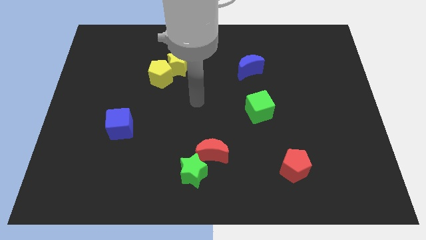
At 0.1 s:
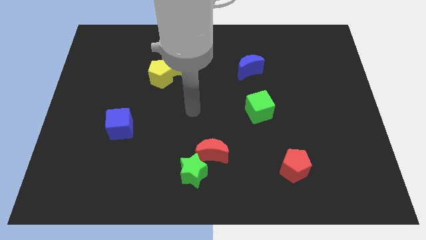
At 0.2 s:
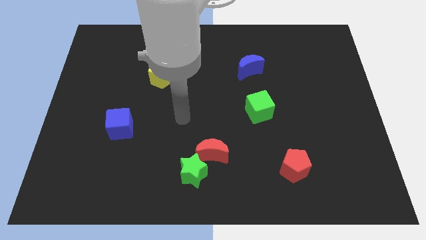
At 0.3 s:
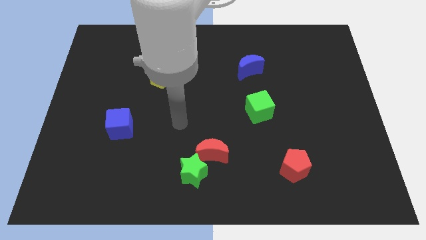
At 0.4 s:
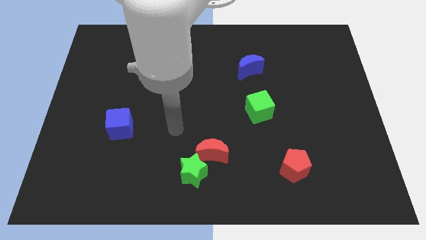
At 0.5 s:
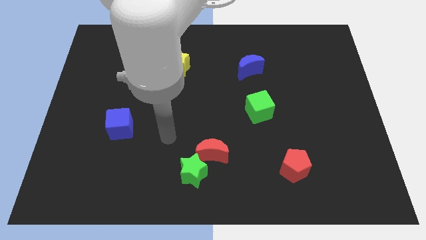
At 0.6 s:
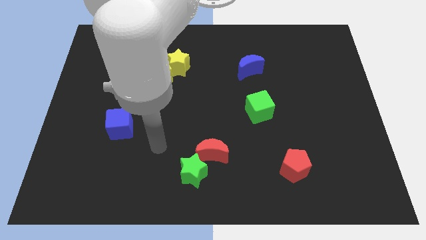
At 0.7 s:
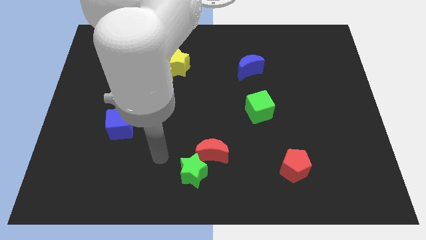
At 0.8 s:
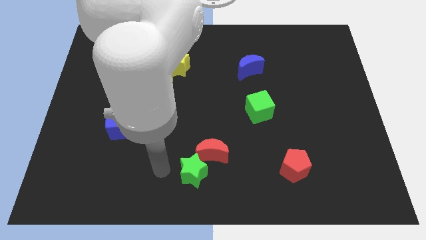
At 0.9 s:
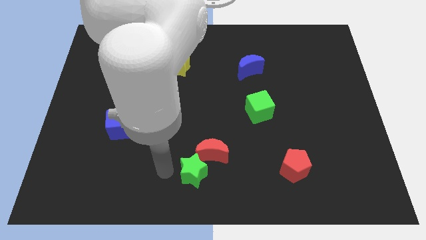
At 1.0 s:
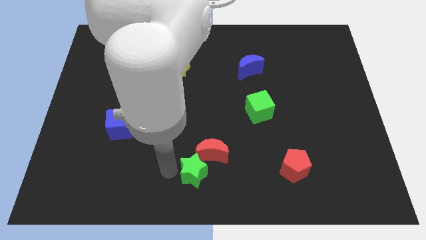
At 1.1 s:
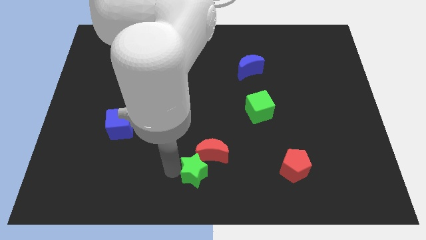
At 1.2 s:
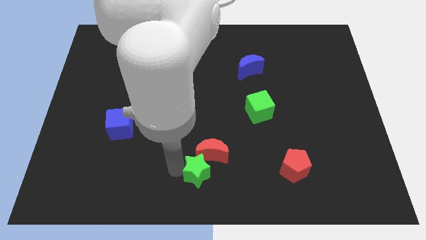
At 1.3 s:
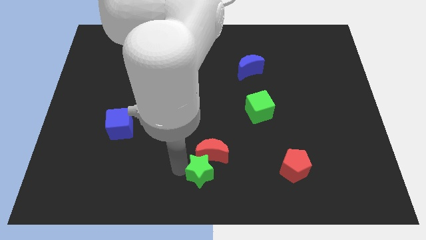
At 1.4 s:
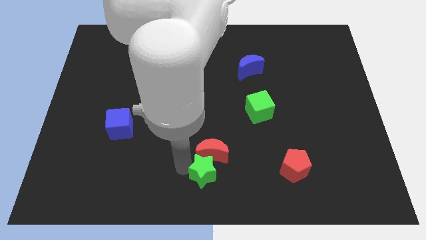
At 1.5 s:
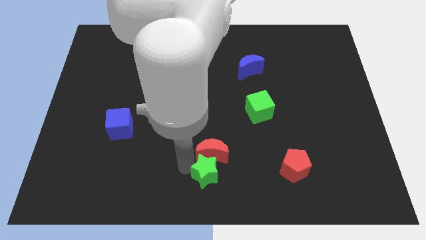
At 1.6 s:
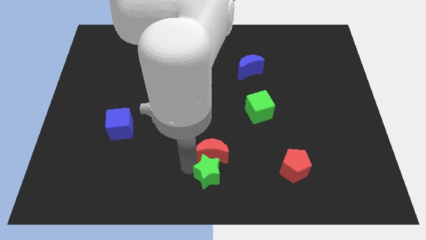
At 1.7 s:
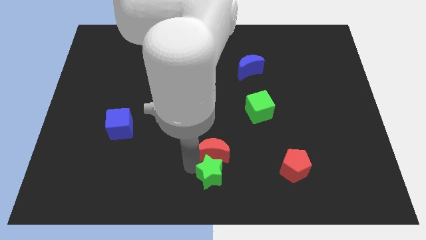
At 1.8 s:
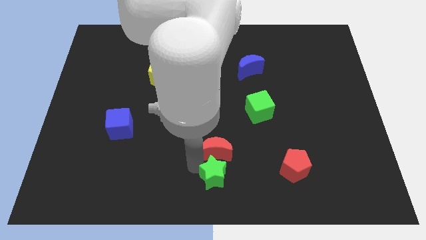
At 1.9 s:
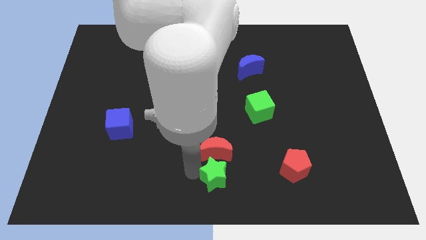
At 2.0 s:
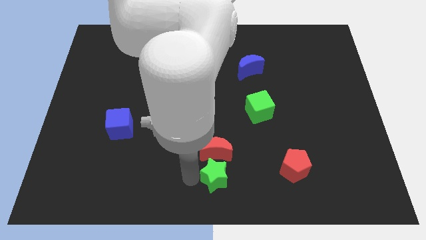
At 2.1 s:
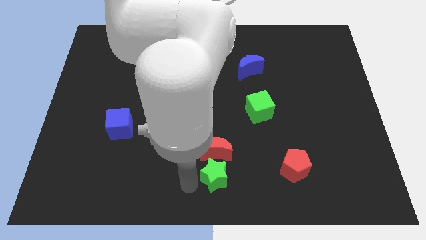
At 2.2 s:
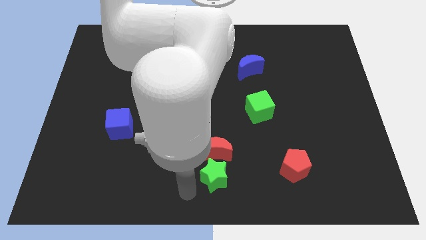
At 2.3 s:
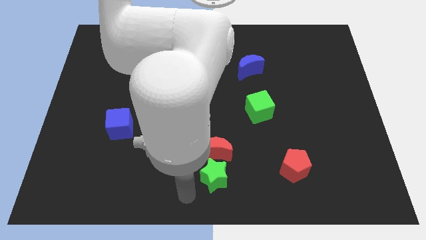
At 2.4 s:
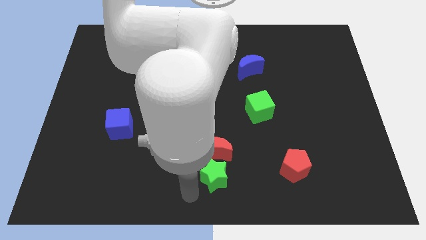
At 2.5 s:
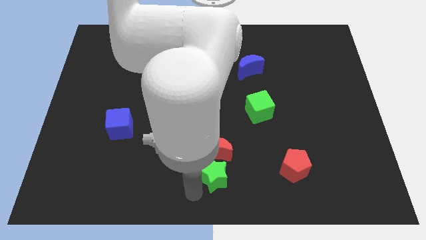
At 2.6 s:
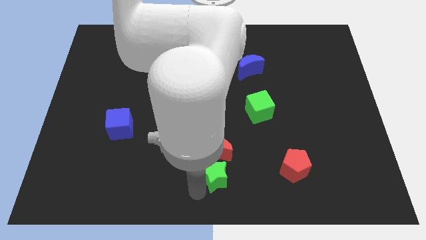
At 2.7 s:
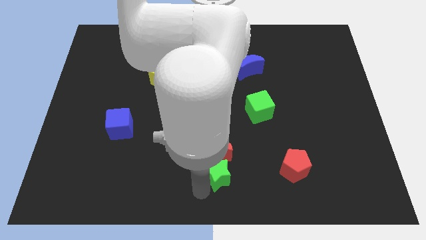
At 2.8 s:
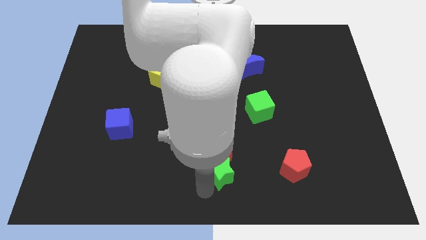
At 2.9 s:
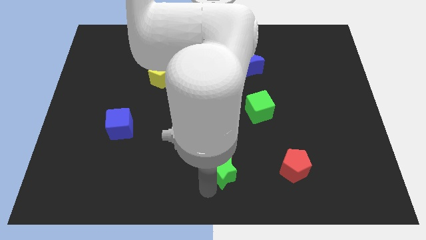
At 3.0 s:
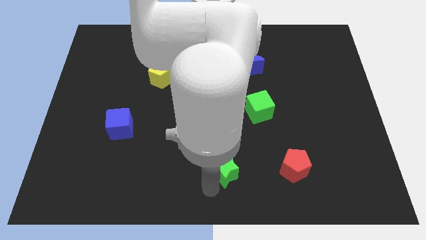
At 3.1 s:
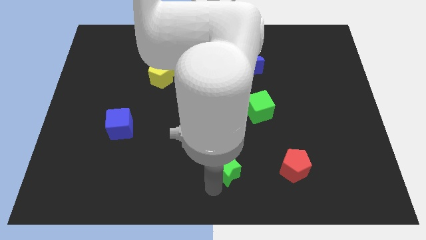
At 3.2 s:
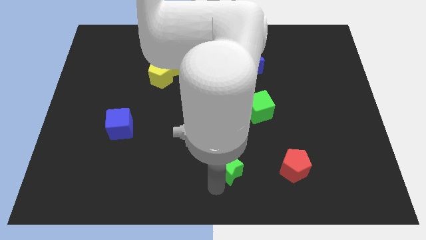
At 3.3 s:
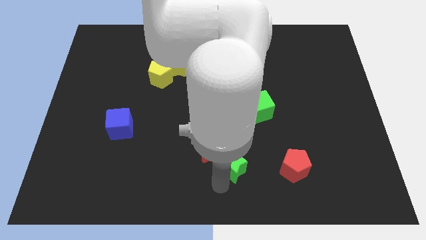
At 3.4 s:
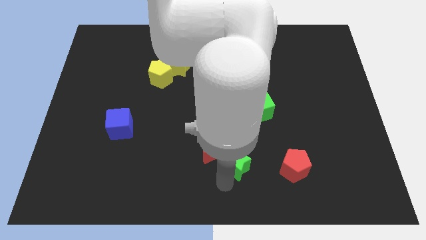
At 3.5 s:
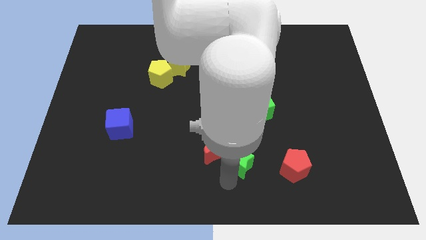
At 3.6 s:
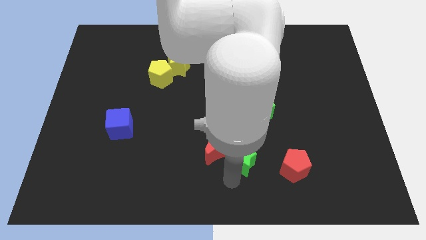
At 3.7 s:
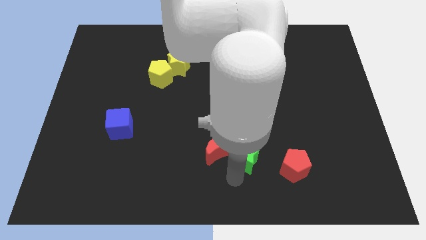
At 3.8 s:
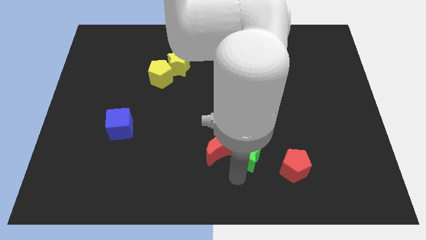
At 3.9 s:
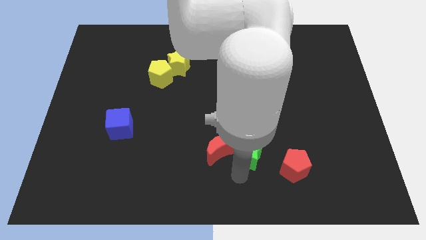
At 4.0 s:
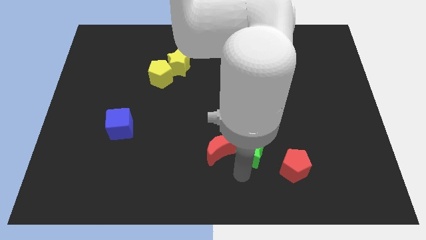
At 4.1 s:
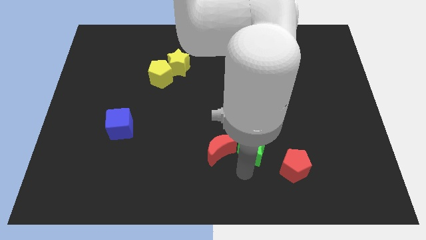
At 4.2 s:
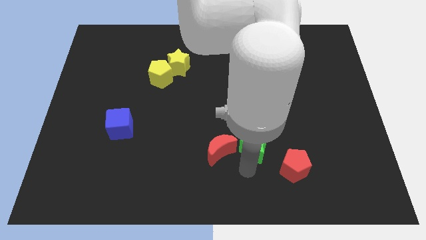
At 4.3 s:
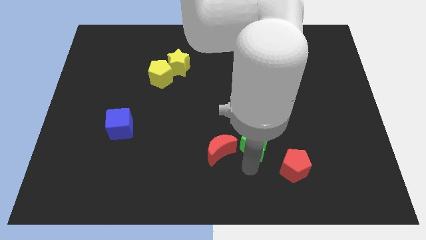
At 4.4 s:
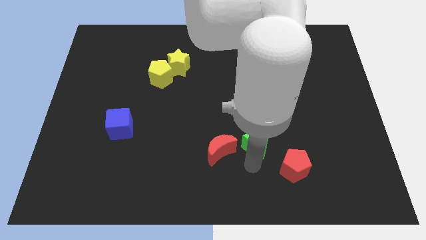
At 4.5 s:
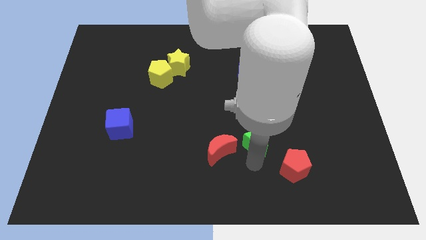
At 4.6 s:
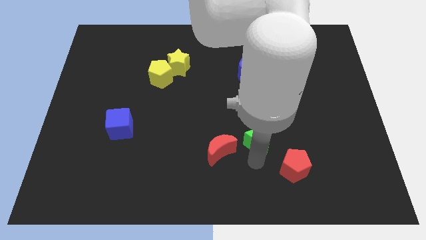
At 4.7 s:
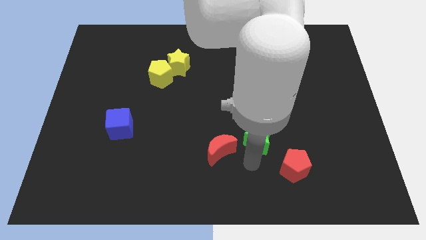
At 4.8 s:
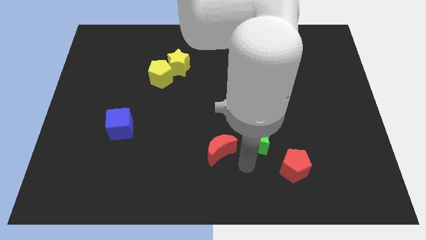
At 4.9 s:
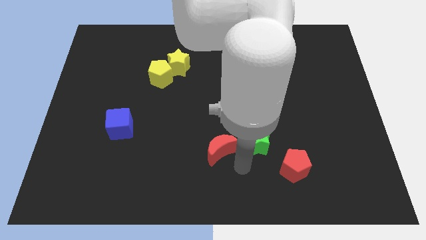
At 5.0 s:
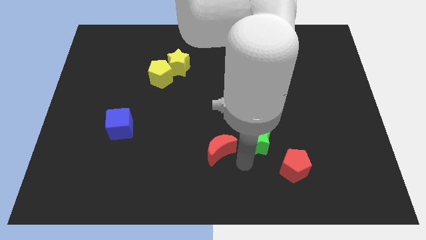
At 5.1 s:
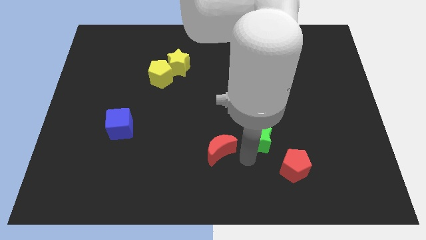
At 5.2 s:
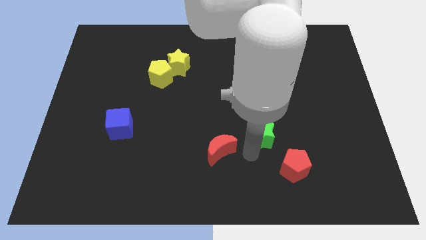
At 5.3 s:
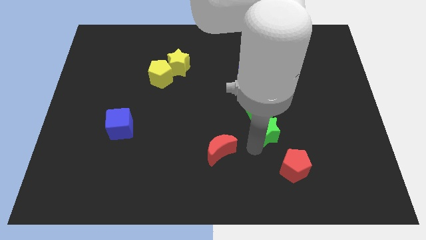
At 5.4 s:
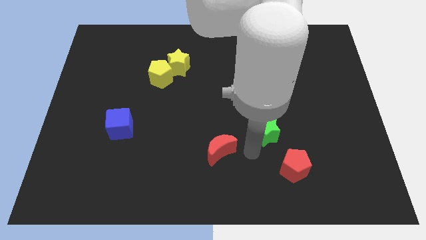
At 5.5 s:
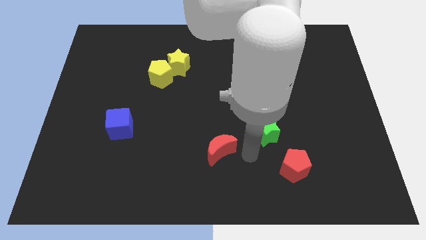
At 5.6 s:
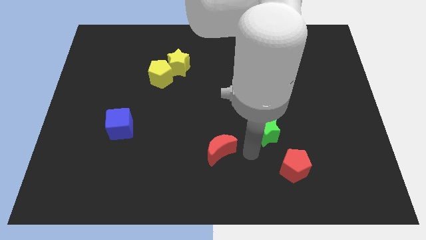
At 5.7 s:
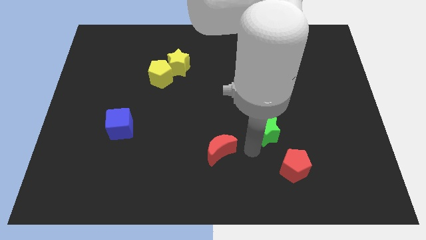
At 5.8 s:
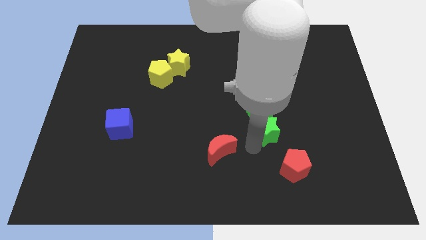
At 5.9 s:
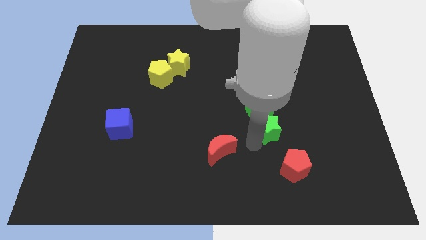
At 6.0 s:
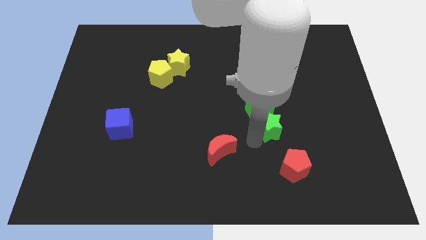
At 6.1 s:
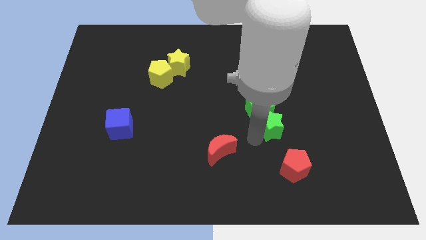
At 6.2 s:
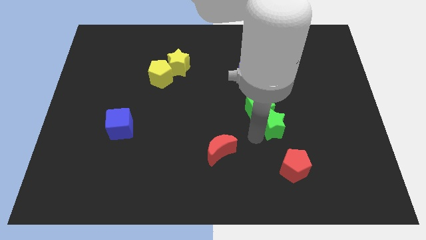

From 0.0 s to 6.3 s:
move the green star up and to the right diagonally

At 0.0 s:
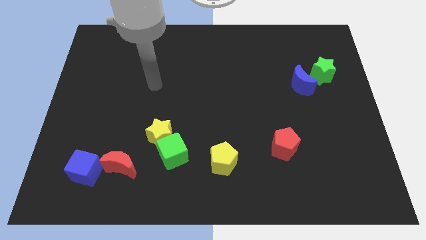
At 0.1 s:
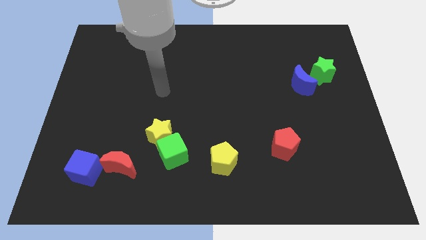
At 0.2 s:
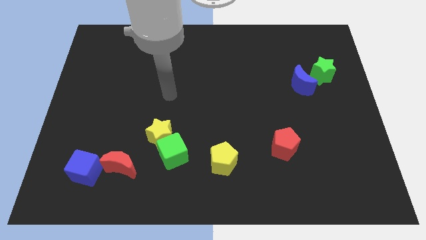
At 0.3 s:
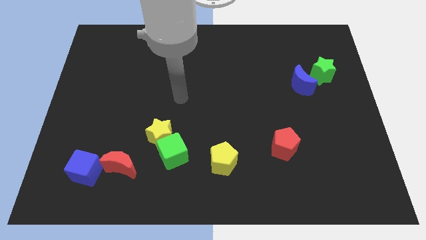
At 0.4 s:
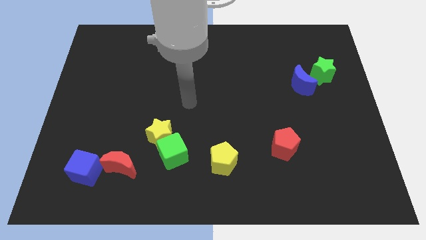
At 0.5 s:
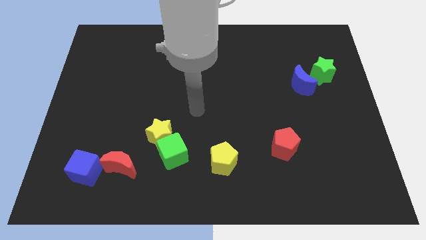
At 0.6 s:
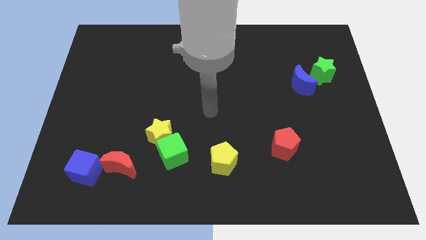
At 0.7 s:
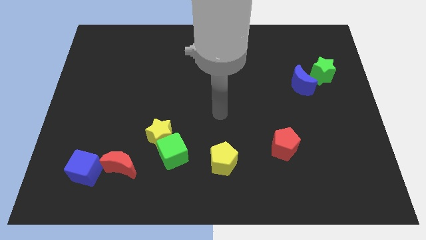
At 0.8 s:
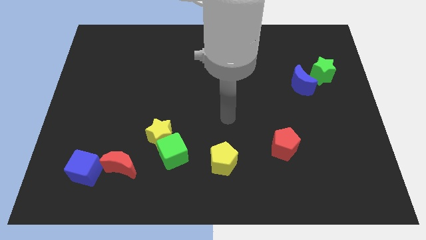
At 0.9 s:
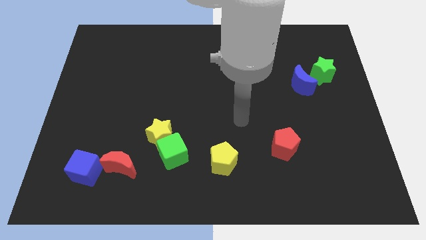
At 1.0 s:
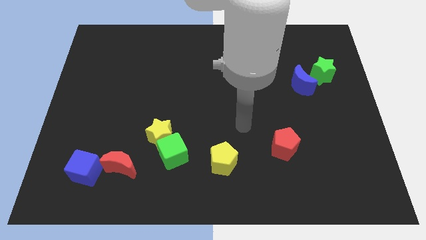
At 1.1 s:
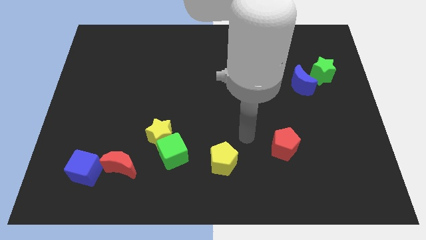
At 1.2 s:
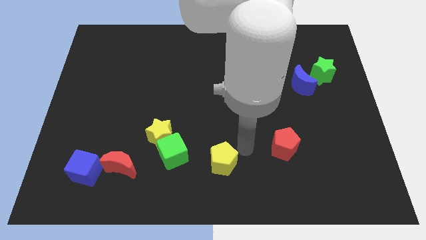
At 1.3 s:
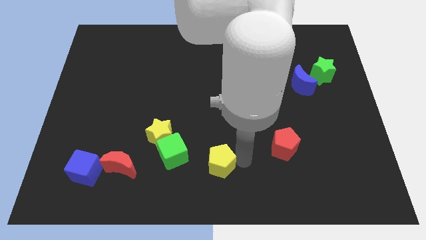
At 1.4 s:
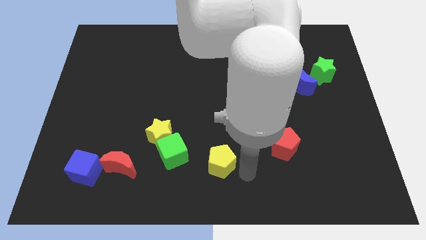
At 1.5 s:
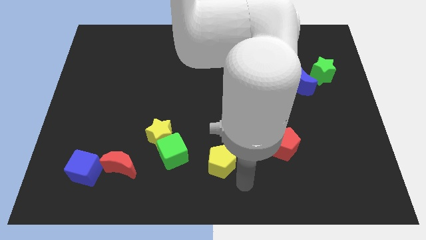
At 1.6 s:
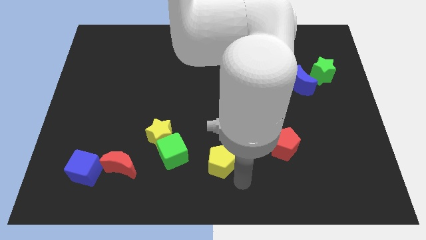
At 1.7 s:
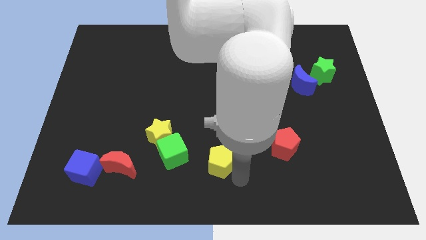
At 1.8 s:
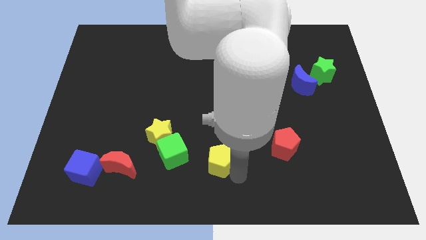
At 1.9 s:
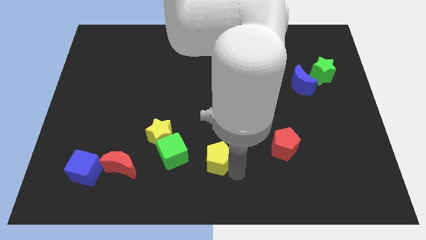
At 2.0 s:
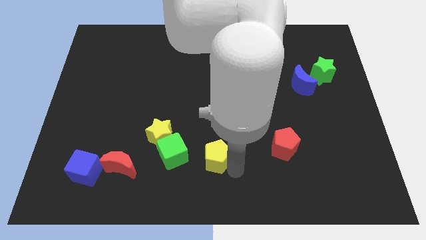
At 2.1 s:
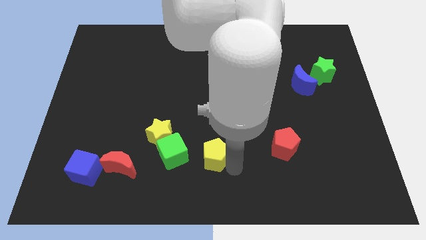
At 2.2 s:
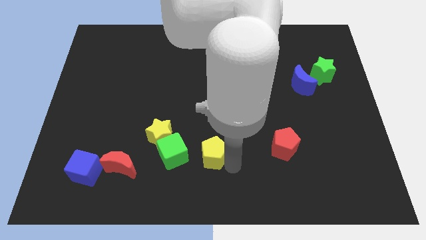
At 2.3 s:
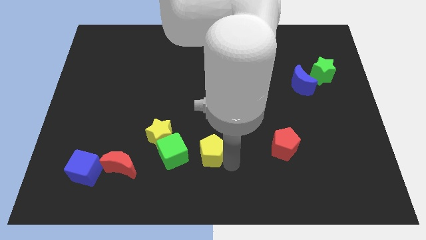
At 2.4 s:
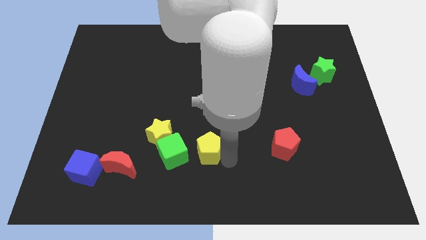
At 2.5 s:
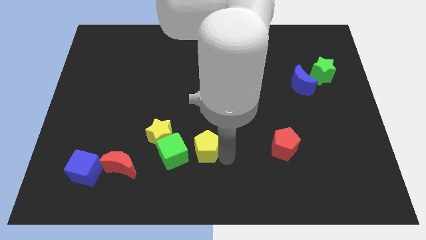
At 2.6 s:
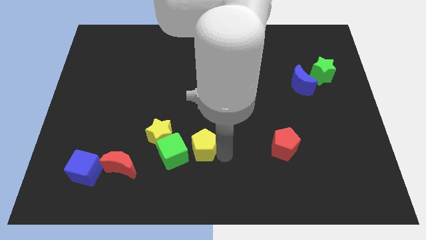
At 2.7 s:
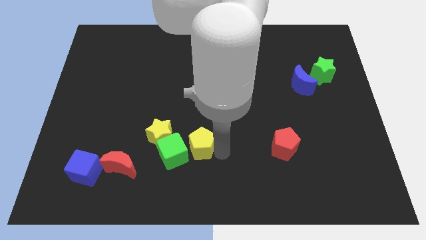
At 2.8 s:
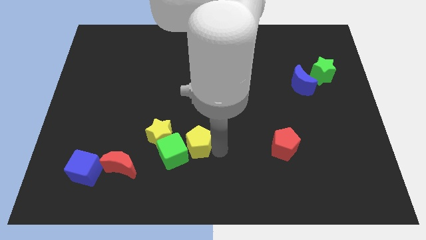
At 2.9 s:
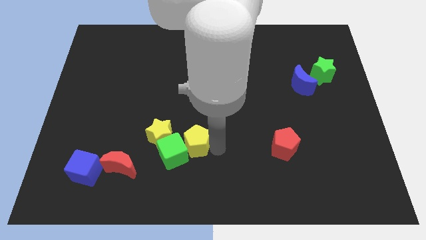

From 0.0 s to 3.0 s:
slide the yellow pentagon a little up and to the left diagonally
